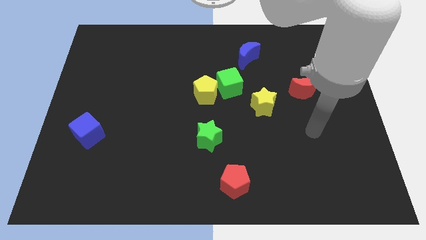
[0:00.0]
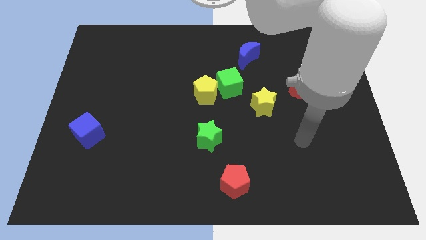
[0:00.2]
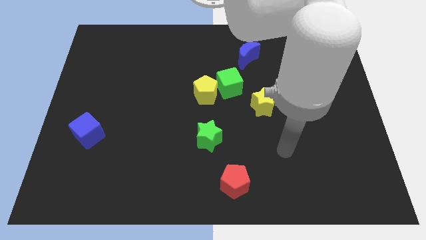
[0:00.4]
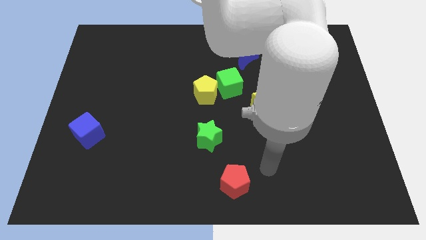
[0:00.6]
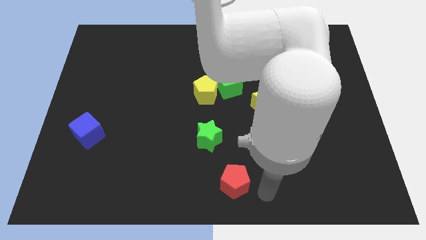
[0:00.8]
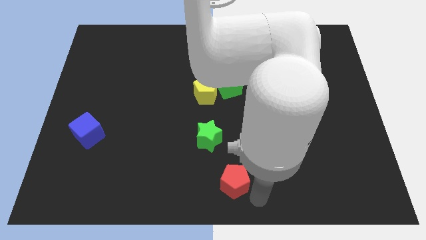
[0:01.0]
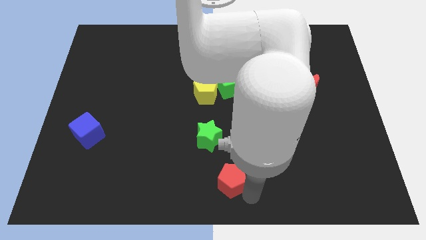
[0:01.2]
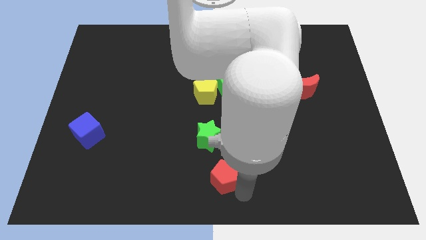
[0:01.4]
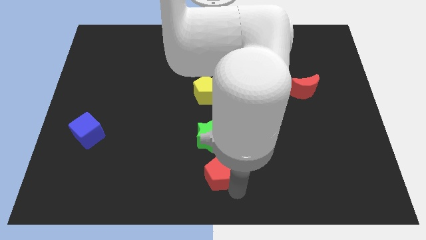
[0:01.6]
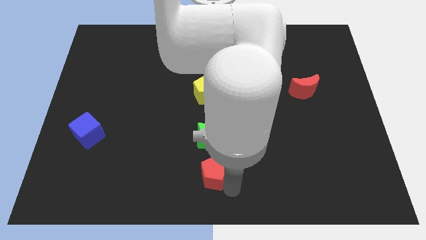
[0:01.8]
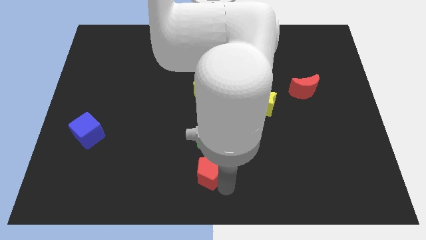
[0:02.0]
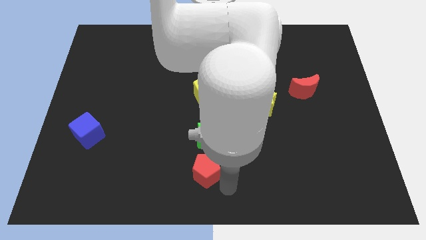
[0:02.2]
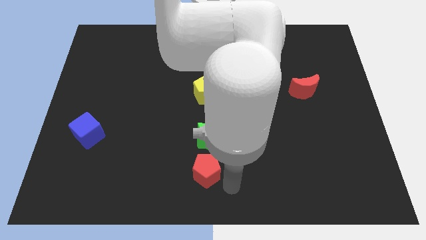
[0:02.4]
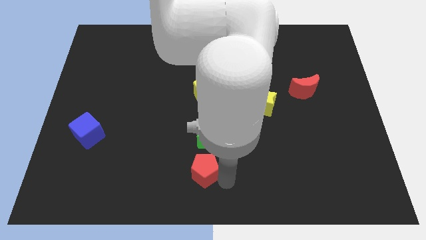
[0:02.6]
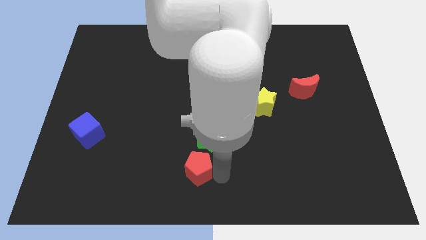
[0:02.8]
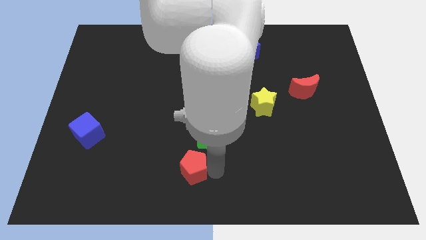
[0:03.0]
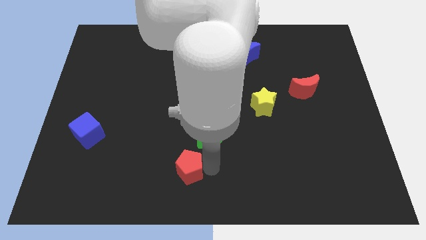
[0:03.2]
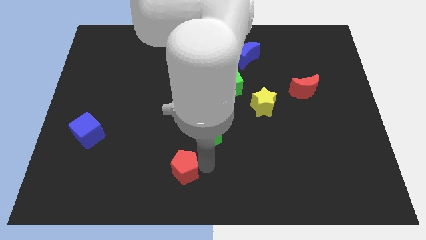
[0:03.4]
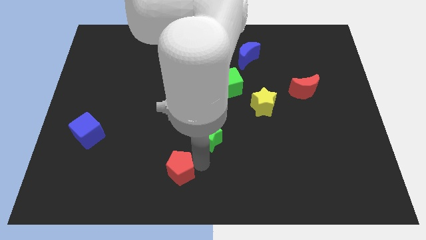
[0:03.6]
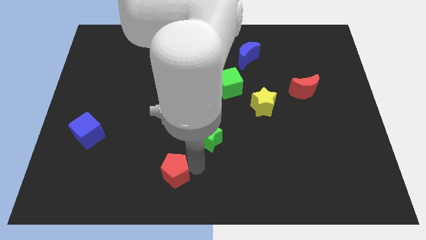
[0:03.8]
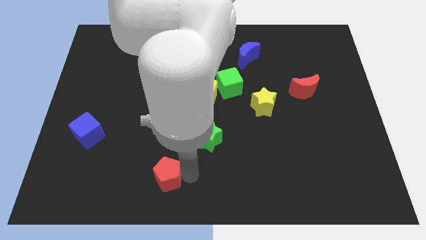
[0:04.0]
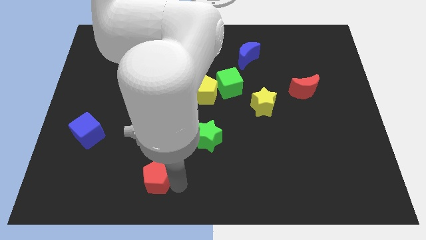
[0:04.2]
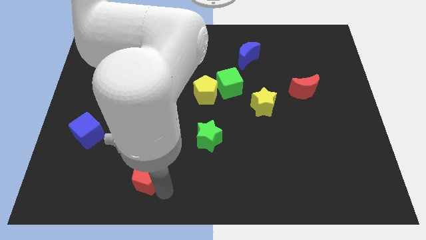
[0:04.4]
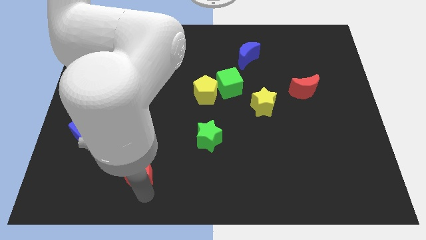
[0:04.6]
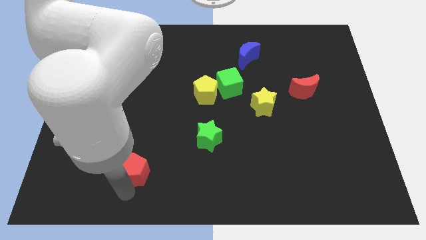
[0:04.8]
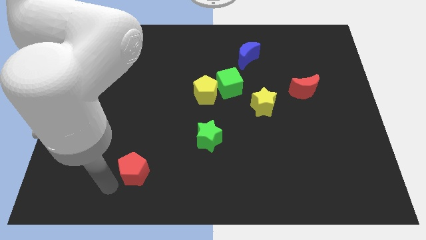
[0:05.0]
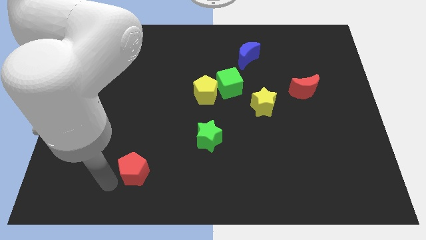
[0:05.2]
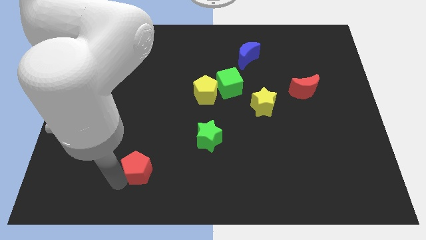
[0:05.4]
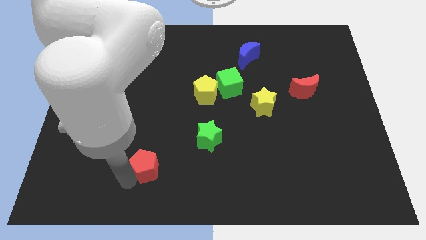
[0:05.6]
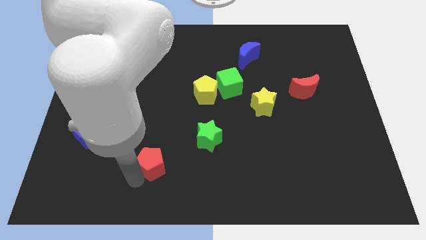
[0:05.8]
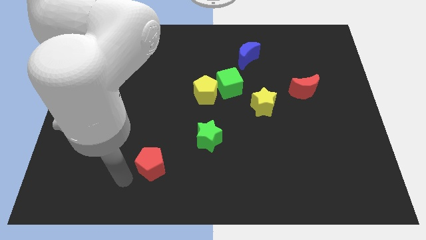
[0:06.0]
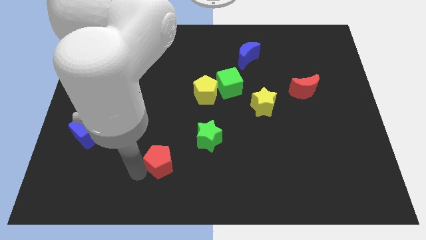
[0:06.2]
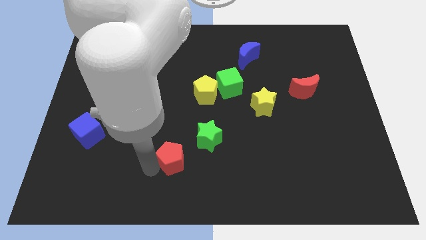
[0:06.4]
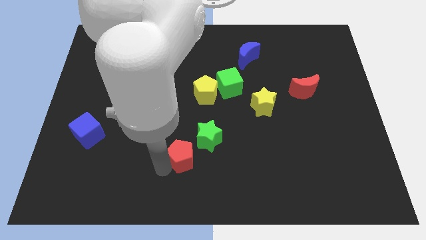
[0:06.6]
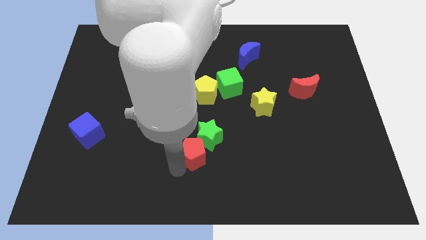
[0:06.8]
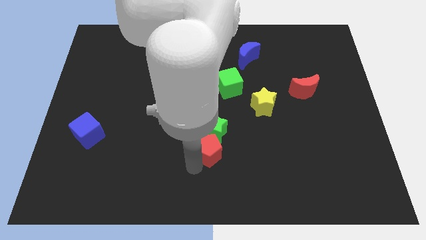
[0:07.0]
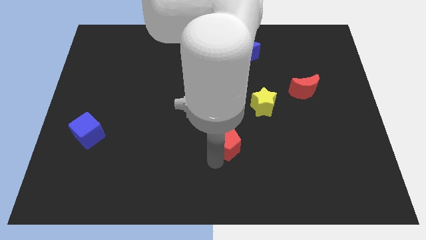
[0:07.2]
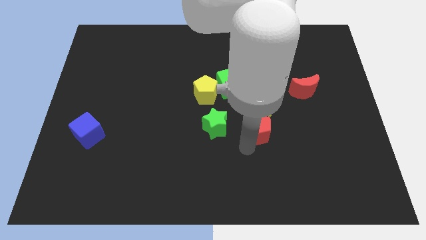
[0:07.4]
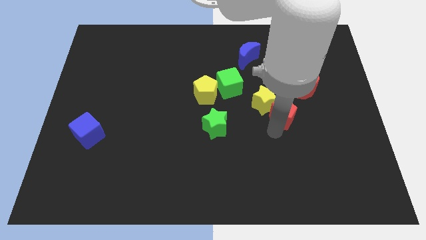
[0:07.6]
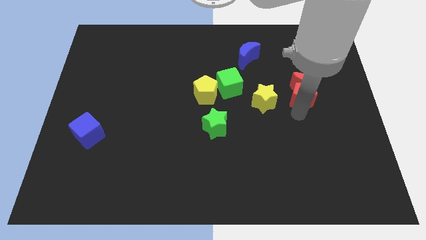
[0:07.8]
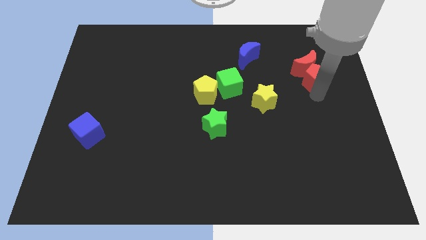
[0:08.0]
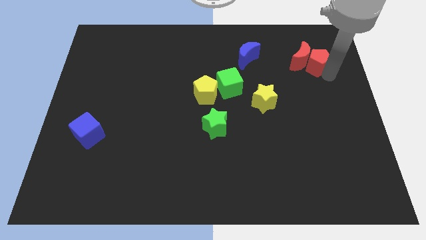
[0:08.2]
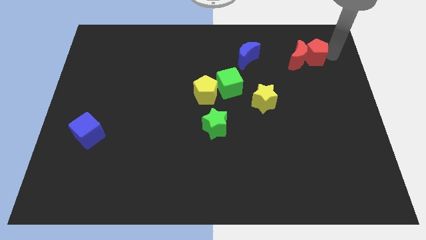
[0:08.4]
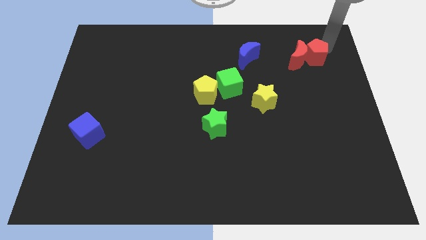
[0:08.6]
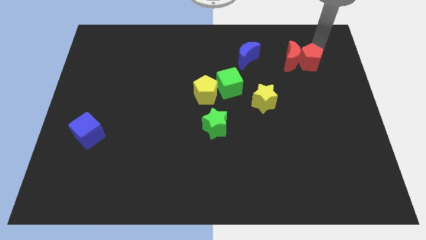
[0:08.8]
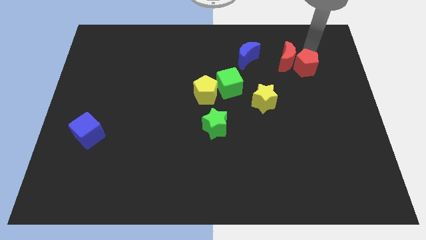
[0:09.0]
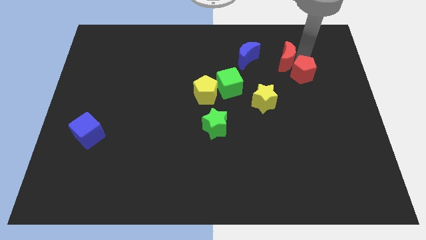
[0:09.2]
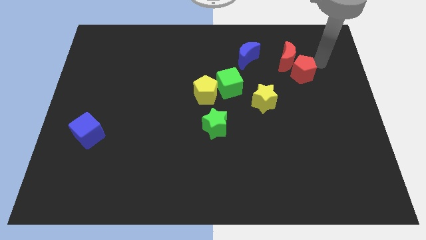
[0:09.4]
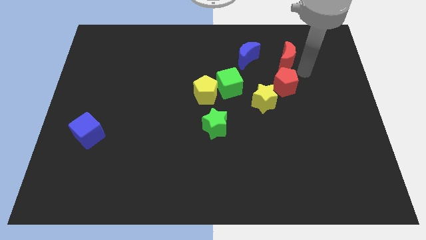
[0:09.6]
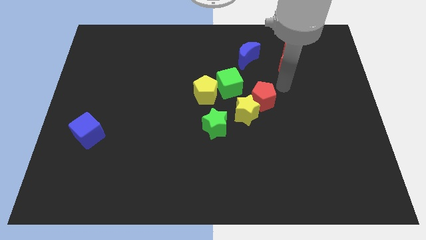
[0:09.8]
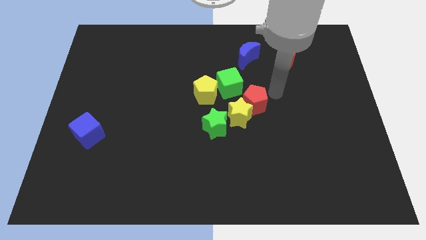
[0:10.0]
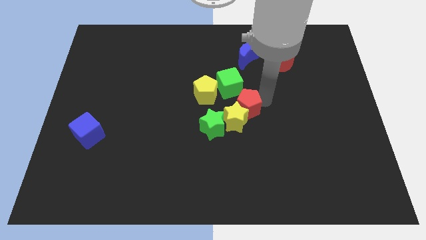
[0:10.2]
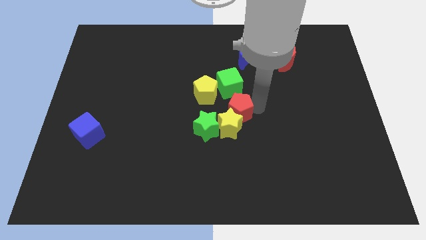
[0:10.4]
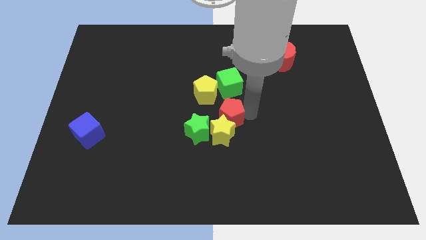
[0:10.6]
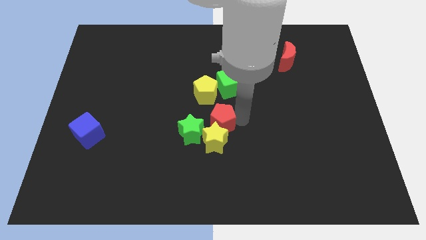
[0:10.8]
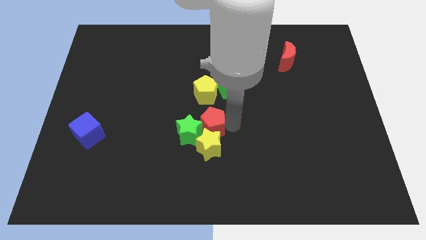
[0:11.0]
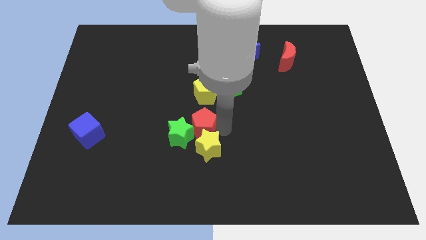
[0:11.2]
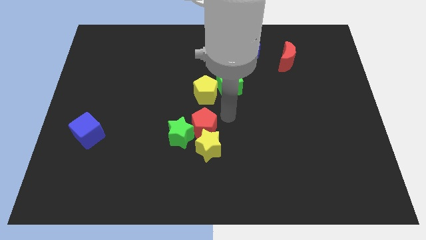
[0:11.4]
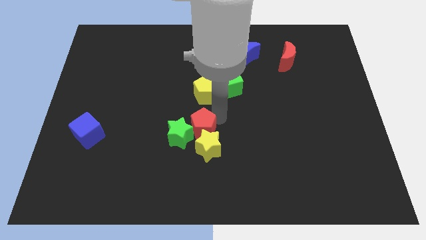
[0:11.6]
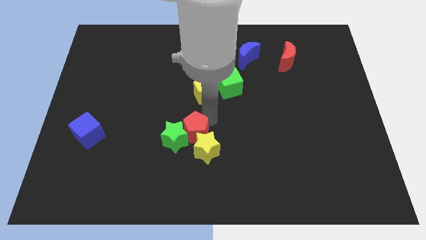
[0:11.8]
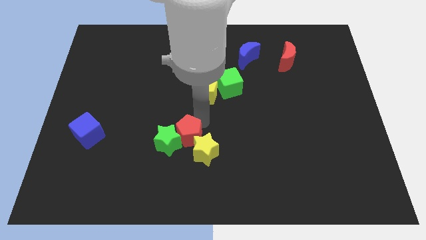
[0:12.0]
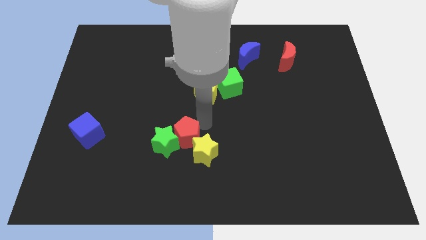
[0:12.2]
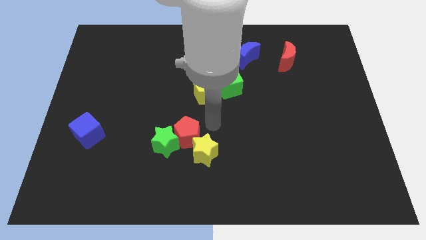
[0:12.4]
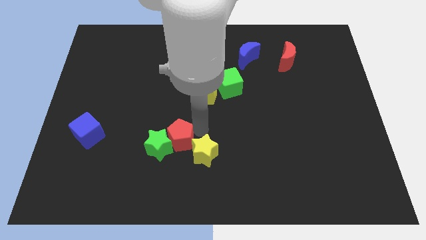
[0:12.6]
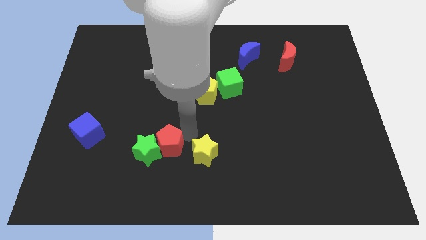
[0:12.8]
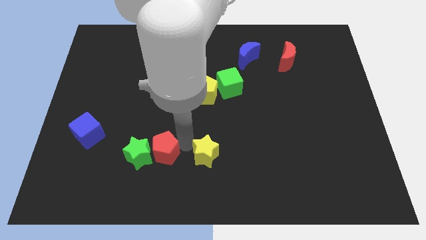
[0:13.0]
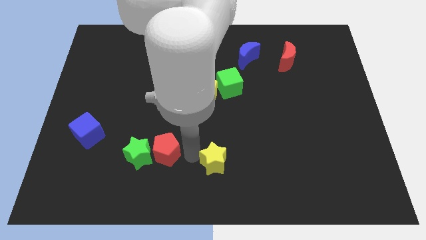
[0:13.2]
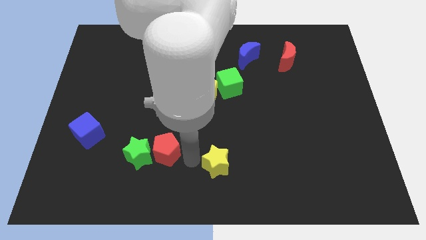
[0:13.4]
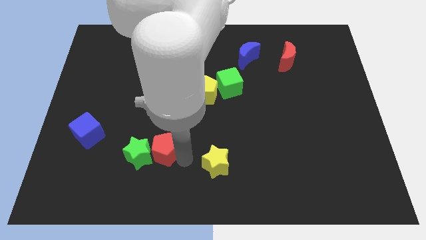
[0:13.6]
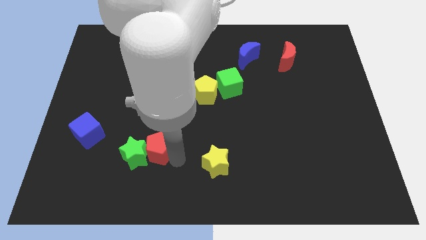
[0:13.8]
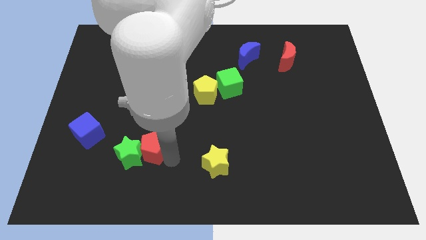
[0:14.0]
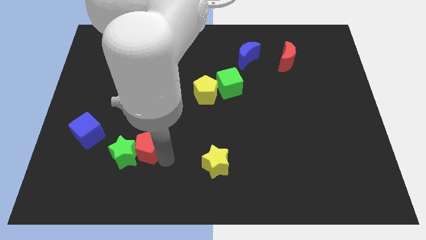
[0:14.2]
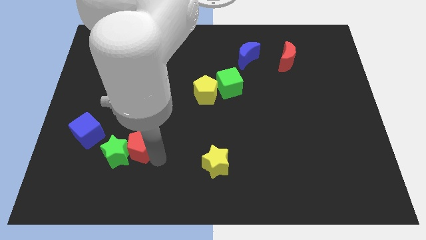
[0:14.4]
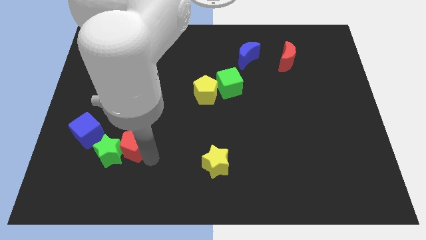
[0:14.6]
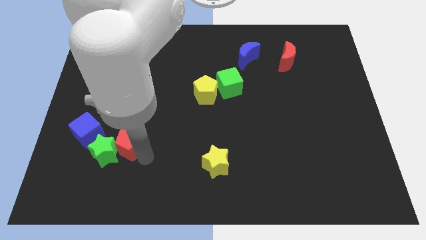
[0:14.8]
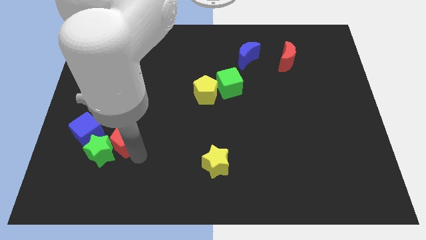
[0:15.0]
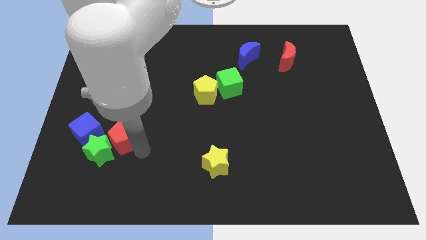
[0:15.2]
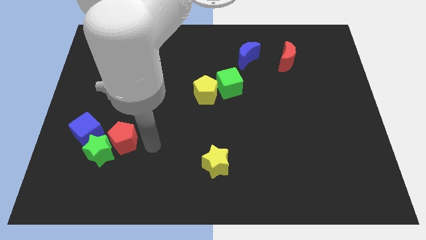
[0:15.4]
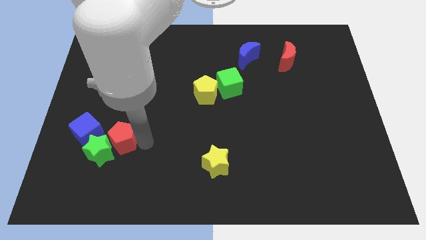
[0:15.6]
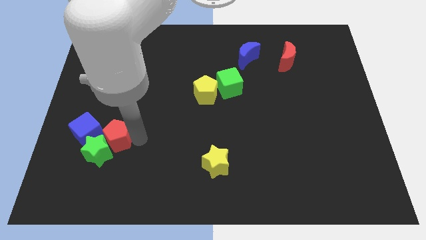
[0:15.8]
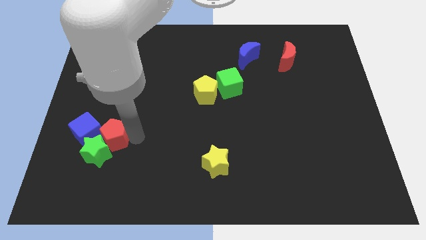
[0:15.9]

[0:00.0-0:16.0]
move the red pentagon close to the blue cube
